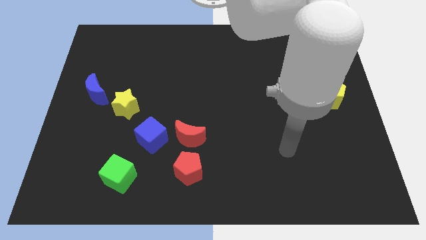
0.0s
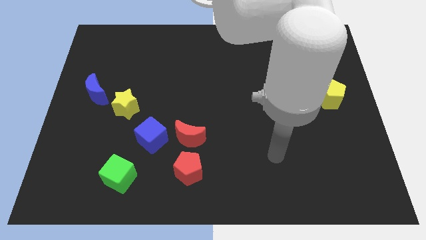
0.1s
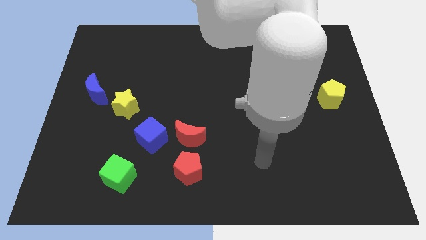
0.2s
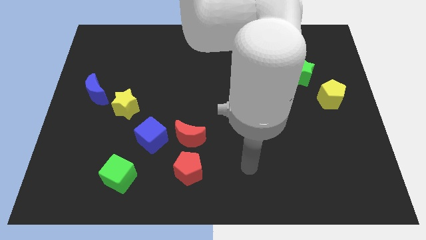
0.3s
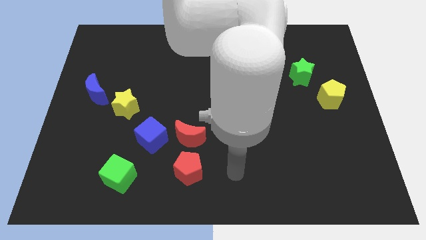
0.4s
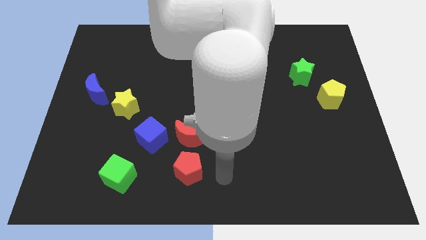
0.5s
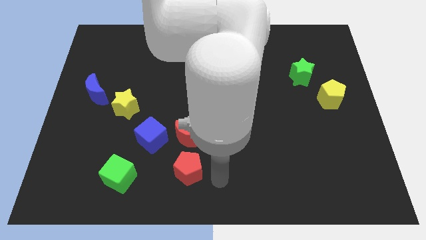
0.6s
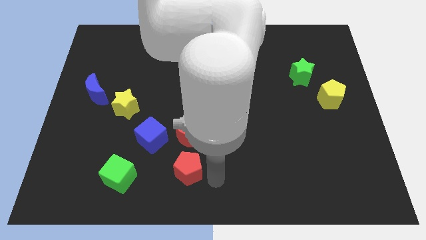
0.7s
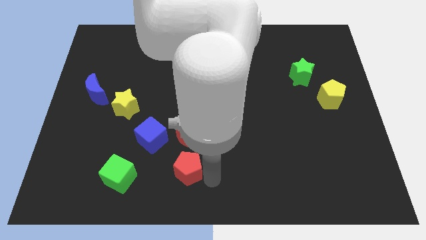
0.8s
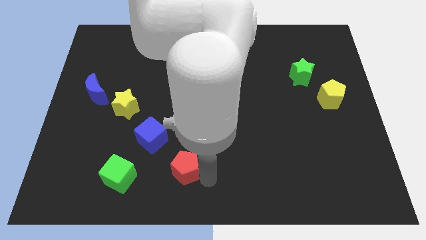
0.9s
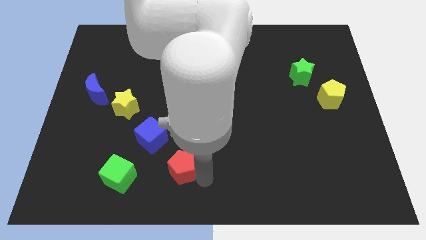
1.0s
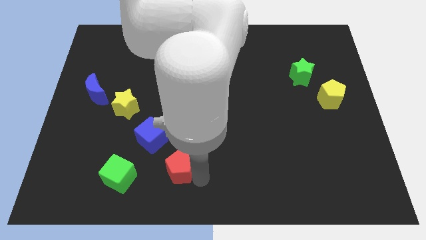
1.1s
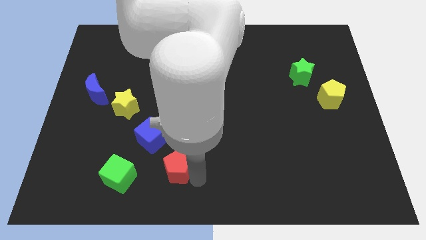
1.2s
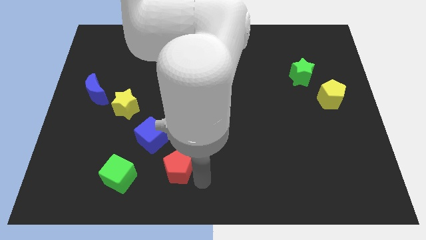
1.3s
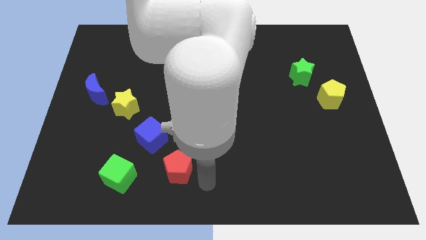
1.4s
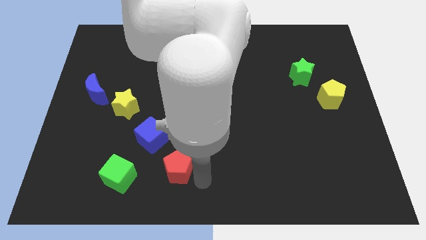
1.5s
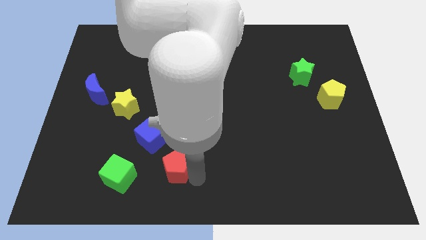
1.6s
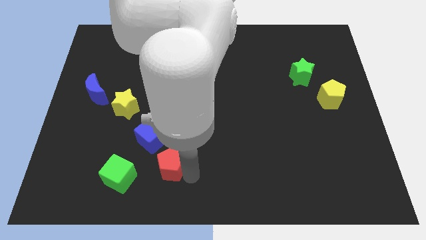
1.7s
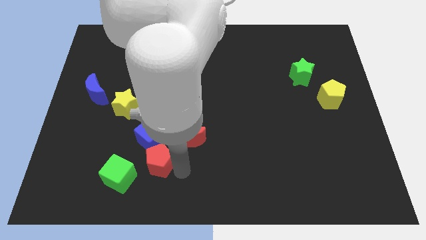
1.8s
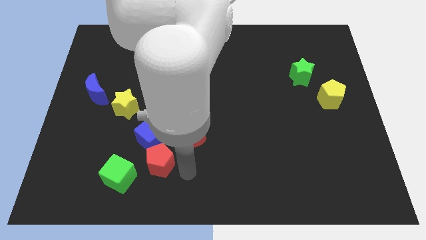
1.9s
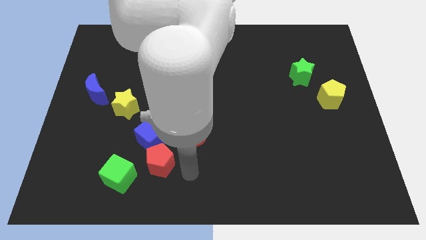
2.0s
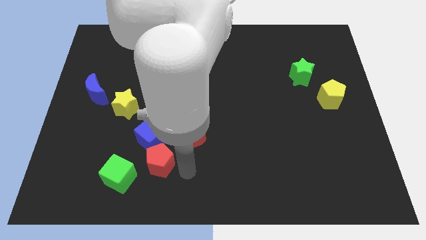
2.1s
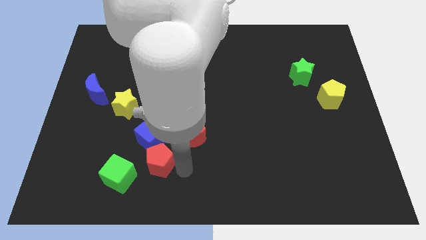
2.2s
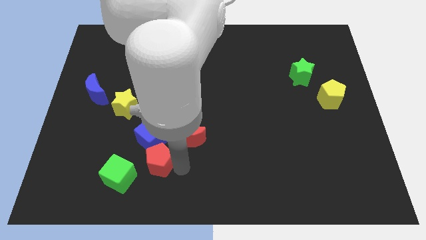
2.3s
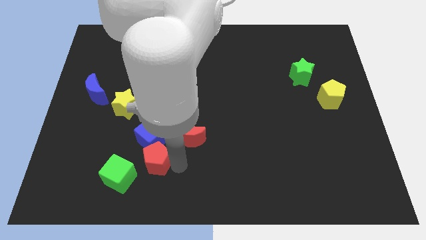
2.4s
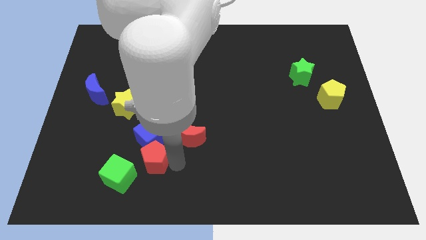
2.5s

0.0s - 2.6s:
slide the red pentagon to the left a bit

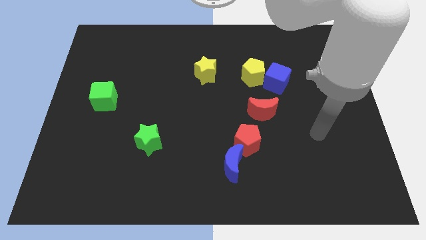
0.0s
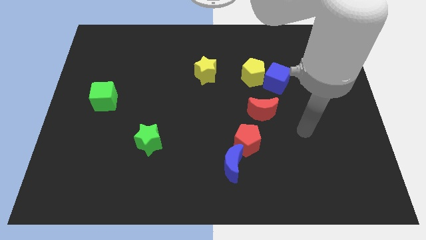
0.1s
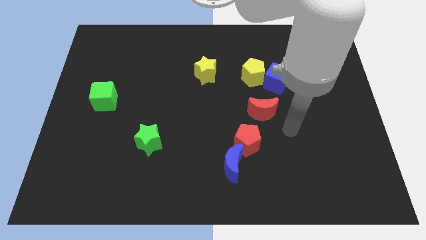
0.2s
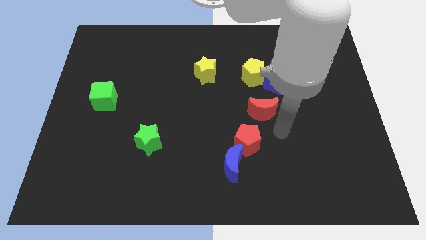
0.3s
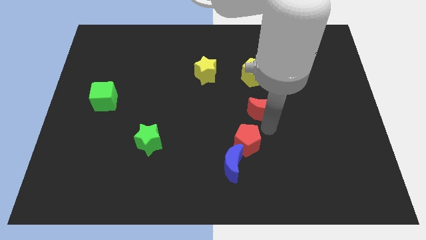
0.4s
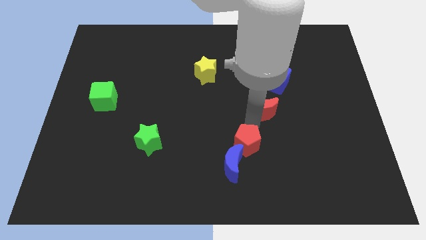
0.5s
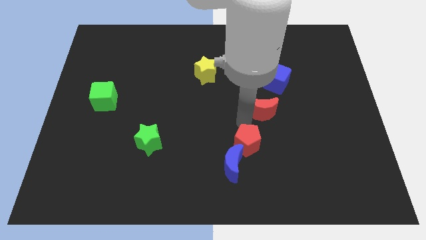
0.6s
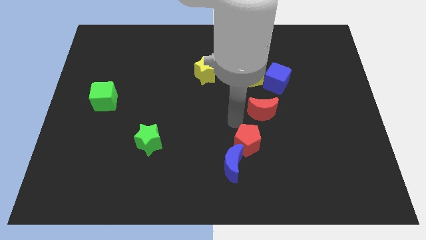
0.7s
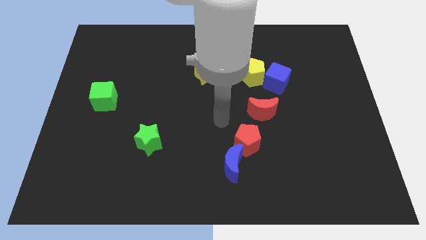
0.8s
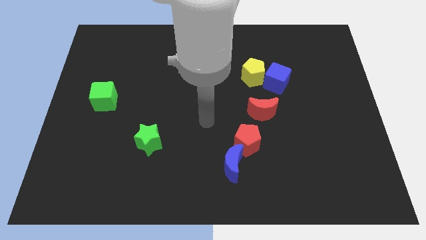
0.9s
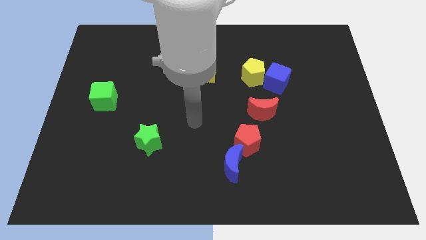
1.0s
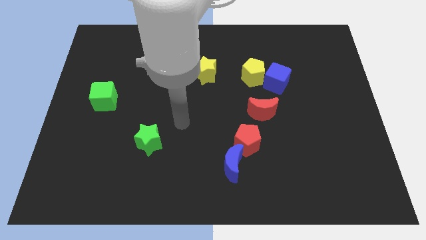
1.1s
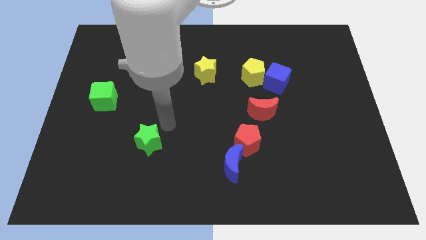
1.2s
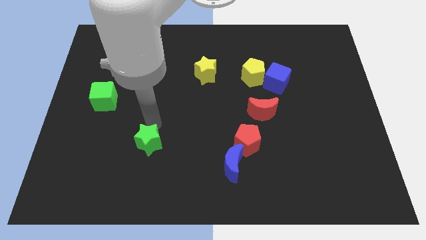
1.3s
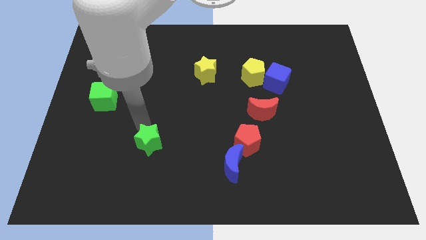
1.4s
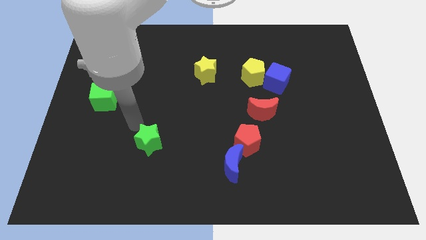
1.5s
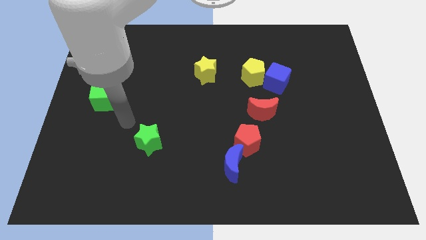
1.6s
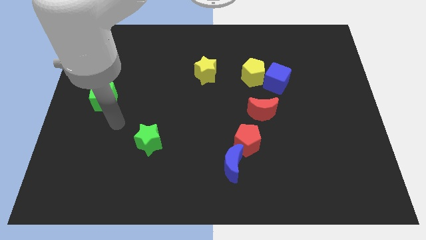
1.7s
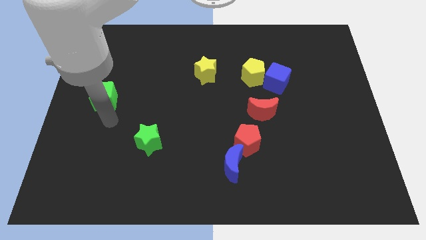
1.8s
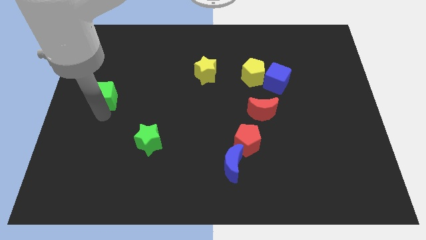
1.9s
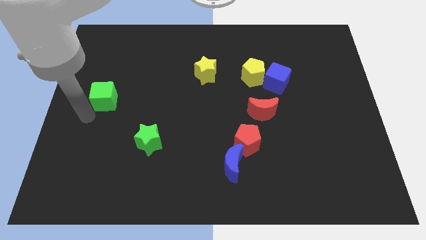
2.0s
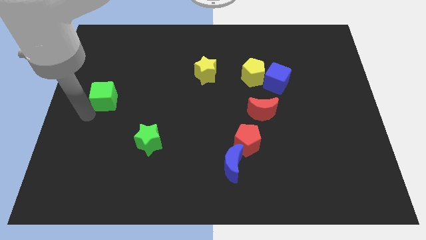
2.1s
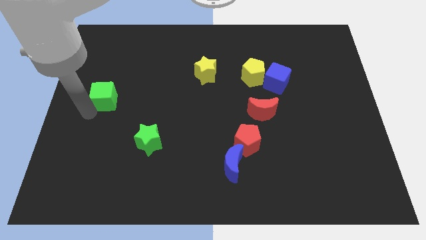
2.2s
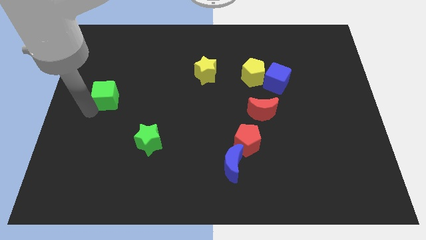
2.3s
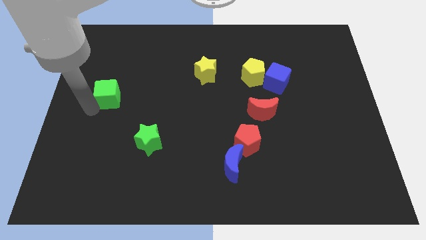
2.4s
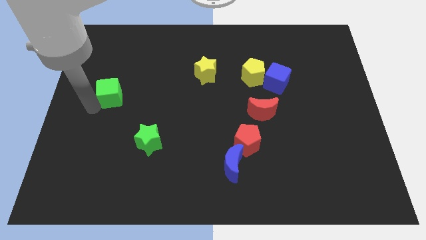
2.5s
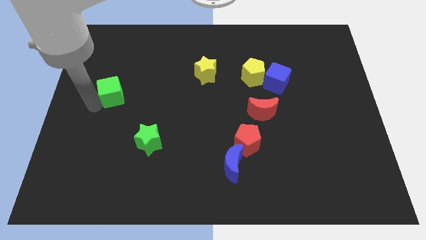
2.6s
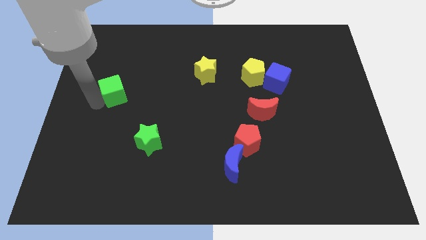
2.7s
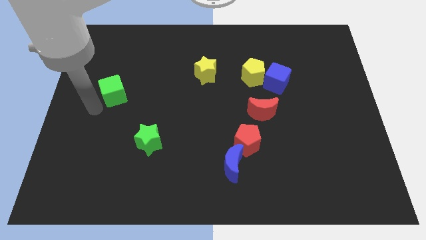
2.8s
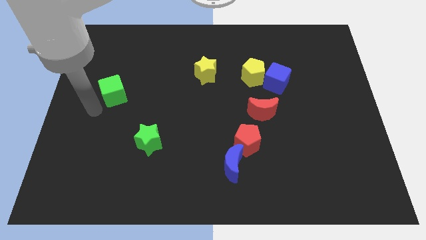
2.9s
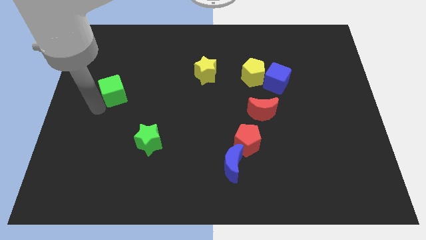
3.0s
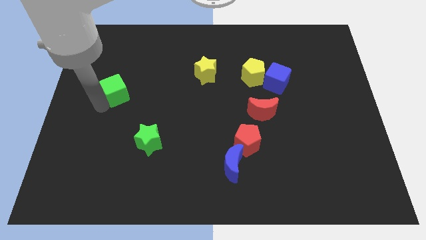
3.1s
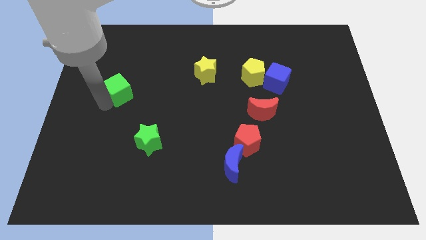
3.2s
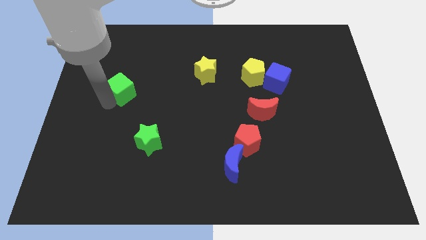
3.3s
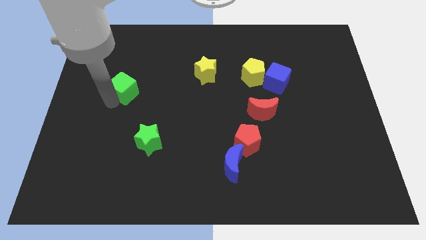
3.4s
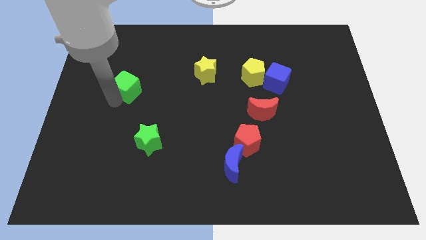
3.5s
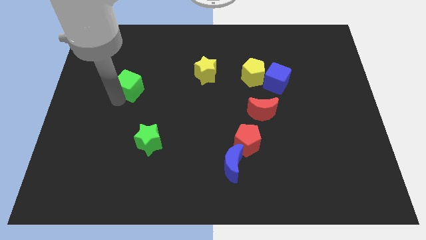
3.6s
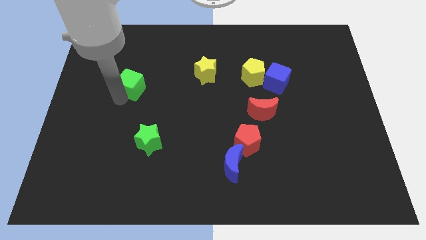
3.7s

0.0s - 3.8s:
slide the green cube diagonally up and to the right a bit

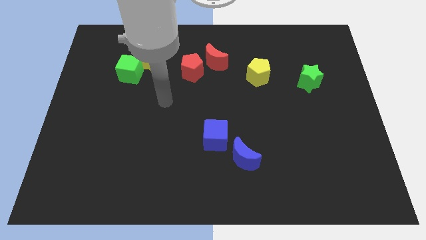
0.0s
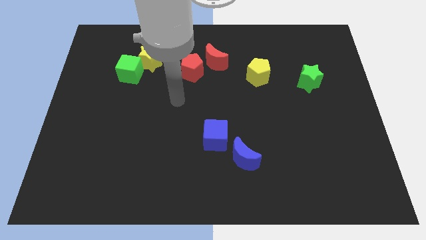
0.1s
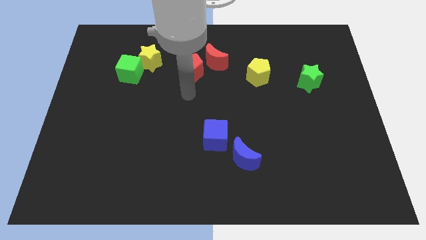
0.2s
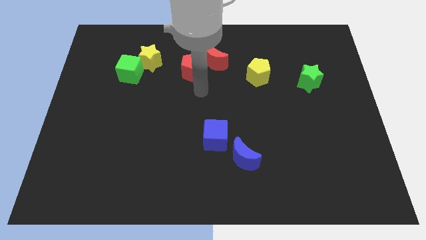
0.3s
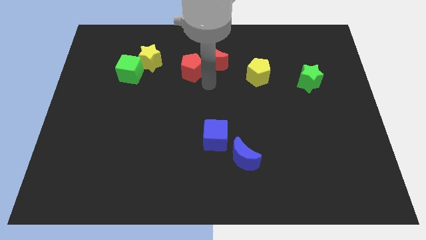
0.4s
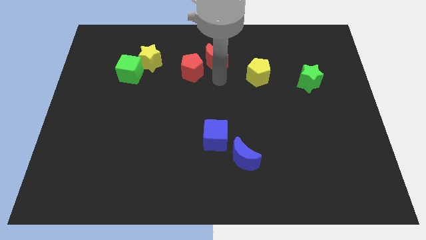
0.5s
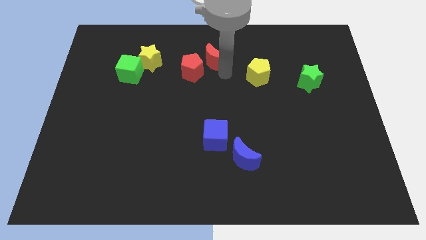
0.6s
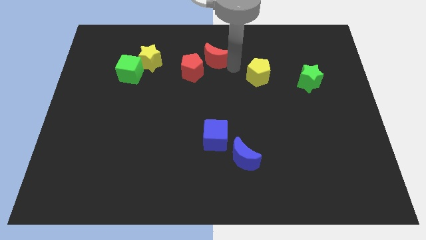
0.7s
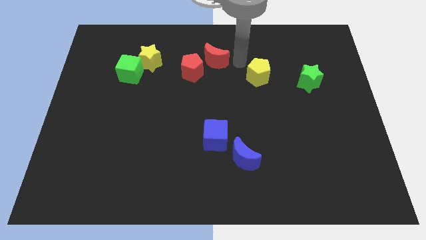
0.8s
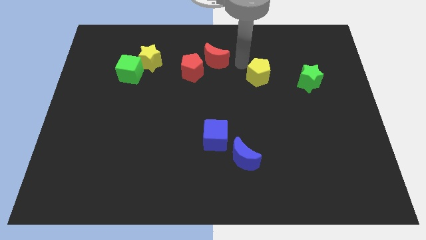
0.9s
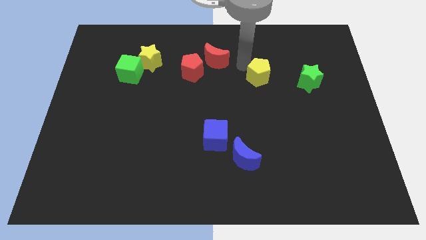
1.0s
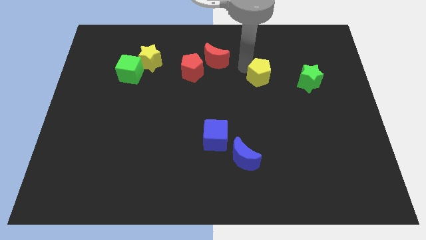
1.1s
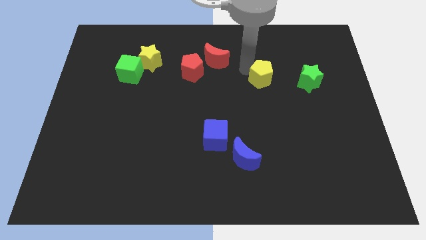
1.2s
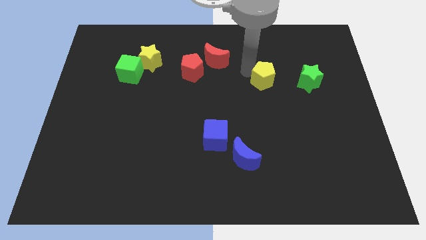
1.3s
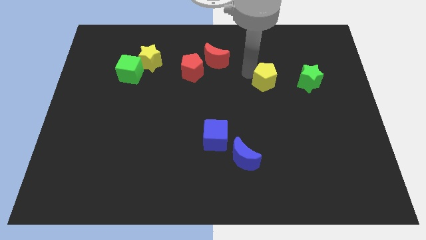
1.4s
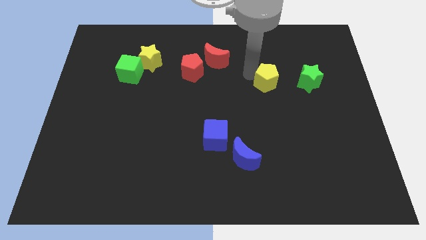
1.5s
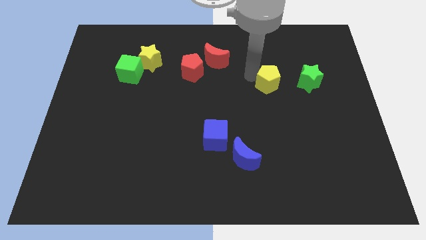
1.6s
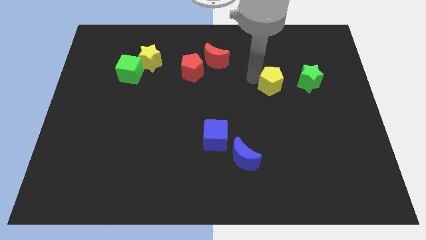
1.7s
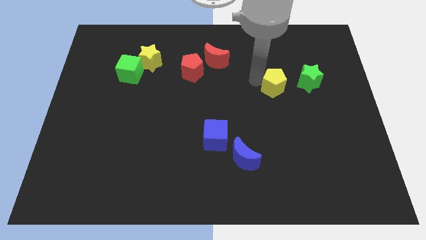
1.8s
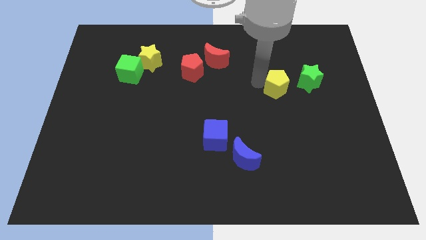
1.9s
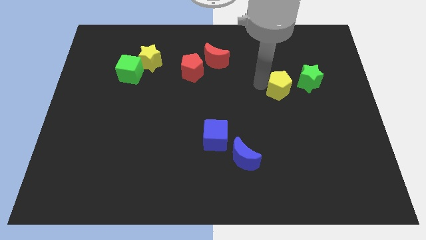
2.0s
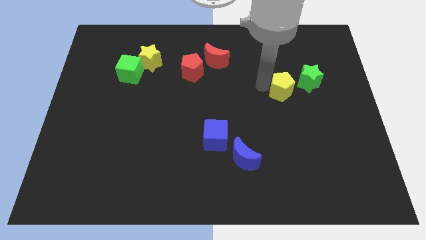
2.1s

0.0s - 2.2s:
push the yellow pentagon a little downwards and then right
